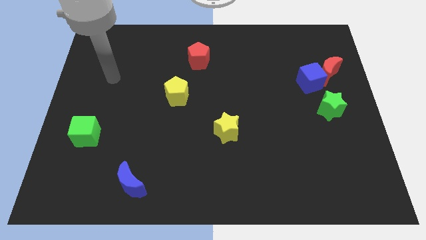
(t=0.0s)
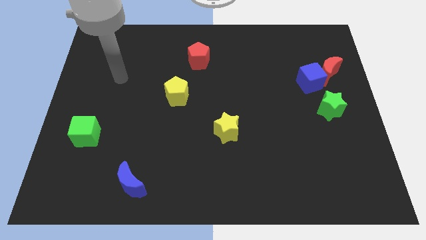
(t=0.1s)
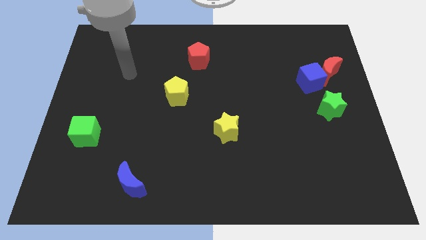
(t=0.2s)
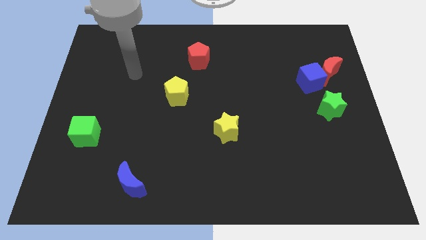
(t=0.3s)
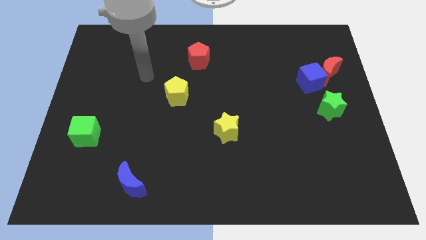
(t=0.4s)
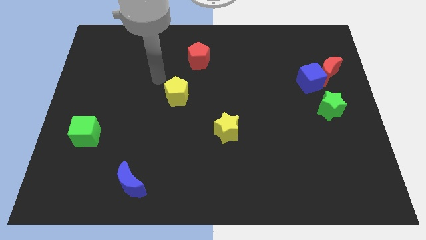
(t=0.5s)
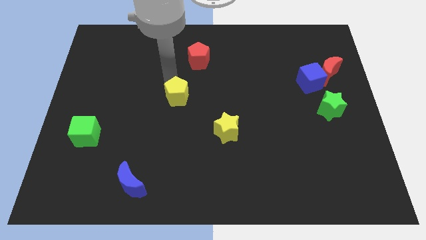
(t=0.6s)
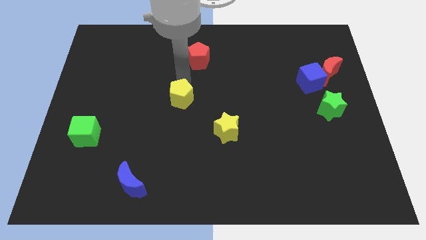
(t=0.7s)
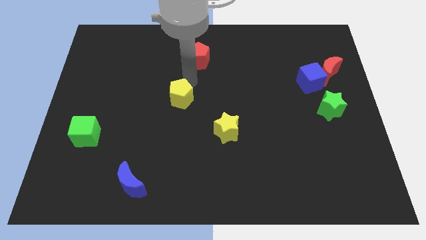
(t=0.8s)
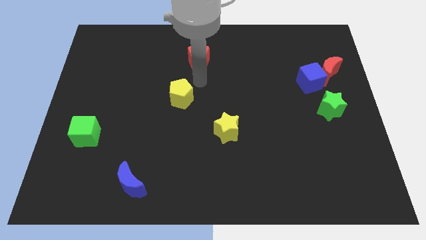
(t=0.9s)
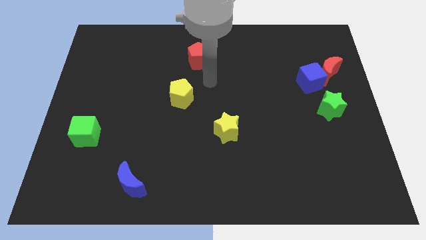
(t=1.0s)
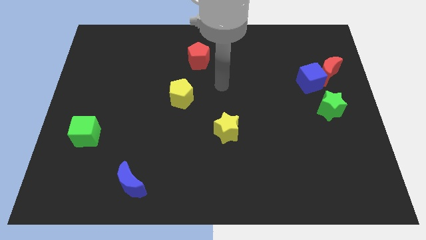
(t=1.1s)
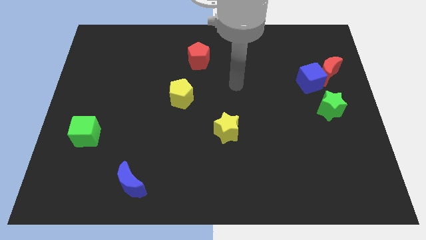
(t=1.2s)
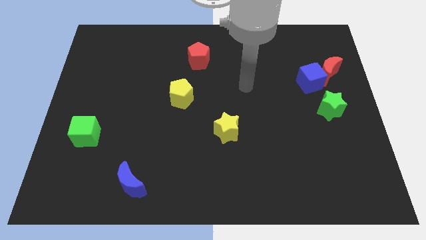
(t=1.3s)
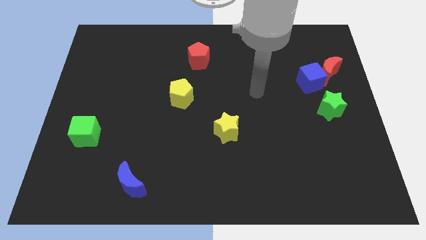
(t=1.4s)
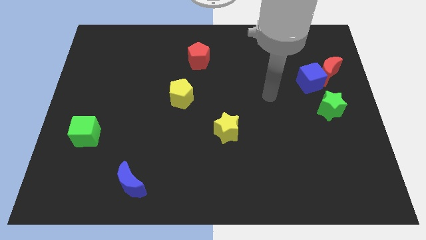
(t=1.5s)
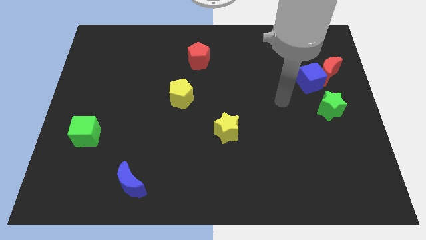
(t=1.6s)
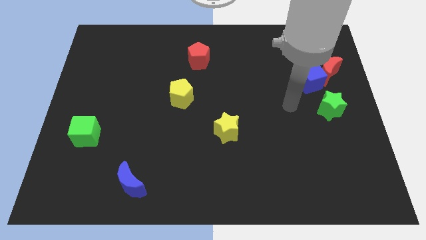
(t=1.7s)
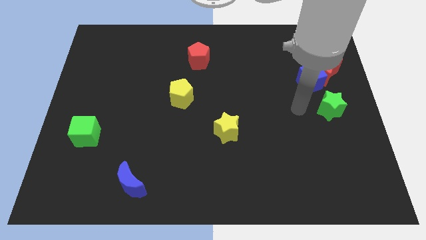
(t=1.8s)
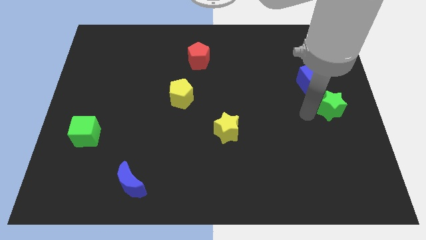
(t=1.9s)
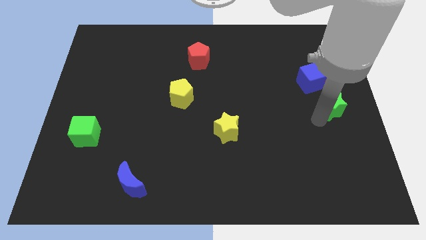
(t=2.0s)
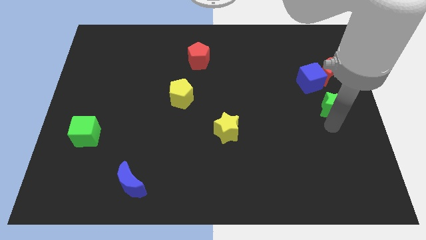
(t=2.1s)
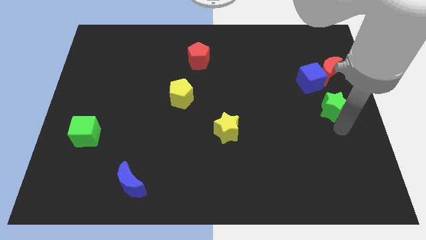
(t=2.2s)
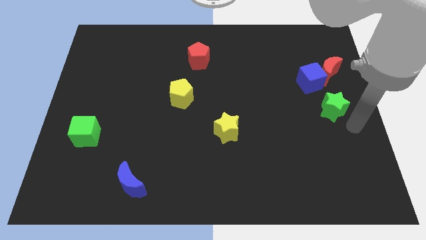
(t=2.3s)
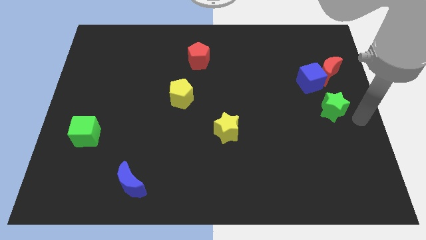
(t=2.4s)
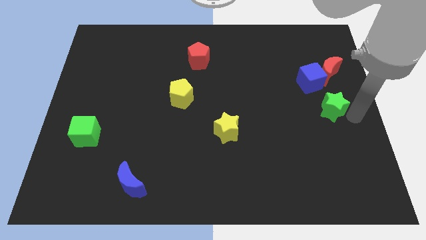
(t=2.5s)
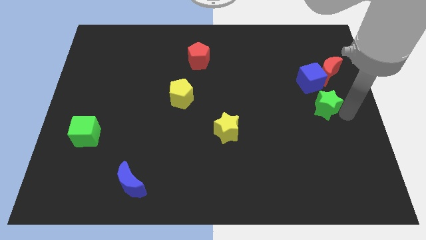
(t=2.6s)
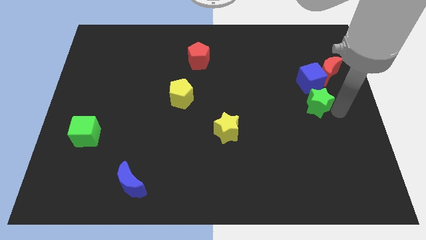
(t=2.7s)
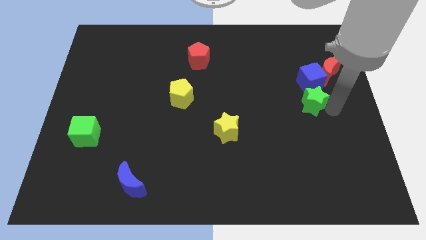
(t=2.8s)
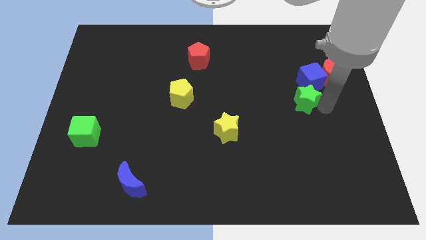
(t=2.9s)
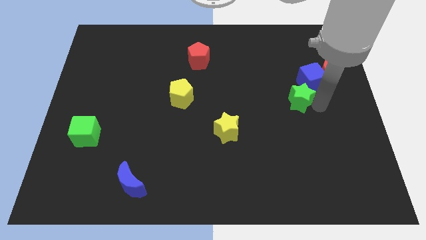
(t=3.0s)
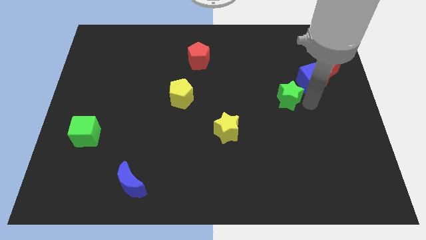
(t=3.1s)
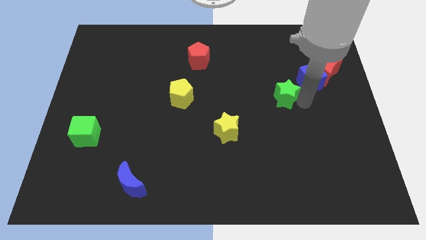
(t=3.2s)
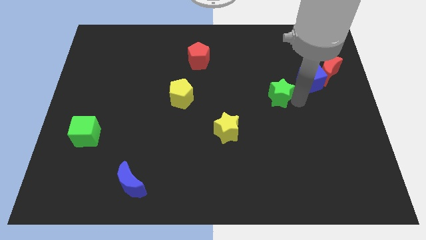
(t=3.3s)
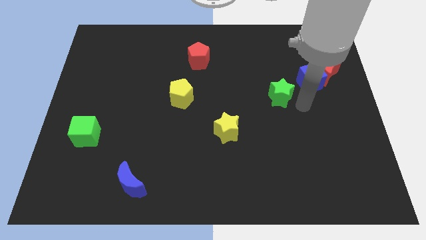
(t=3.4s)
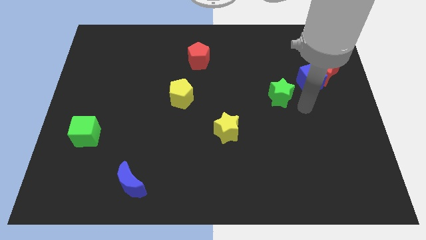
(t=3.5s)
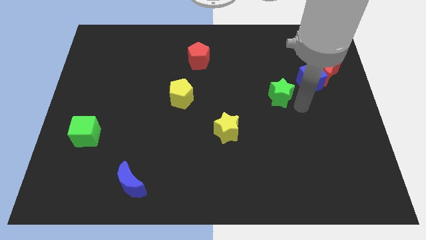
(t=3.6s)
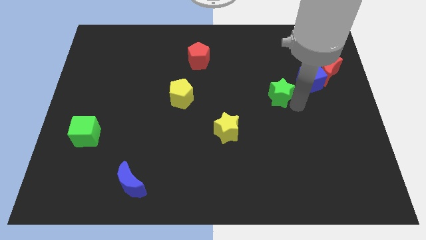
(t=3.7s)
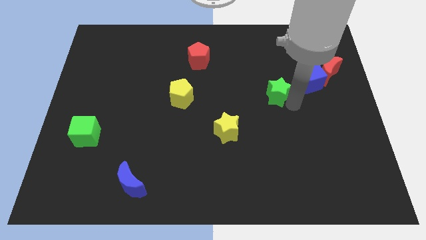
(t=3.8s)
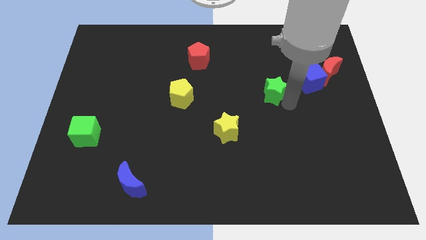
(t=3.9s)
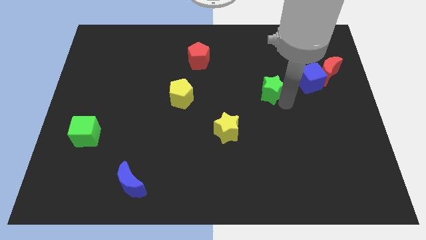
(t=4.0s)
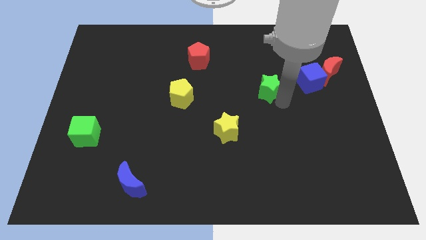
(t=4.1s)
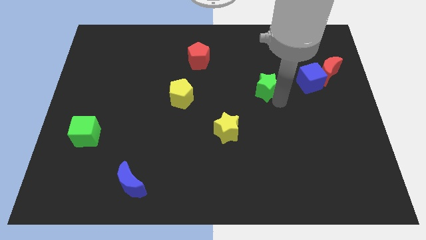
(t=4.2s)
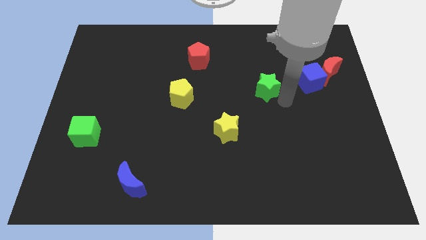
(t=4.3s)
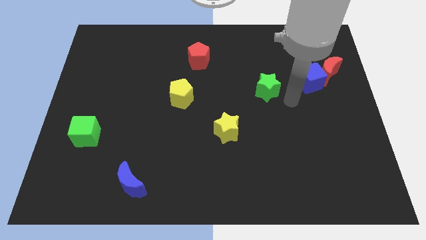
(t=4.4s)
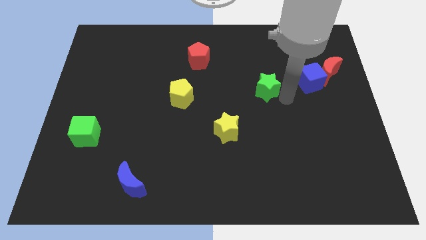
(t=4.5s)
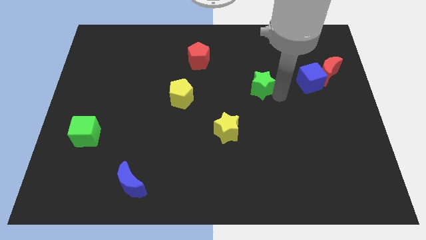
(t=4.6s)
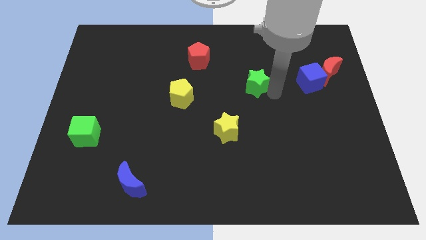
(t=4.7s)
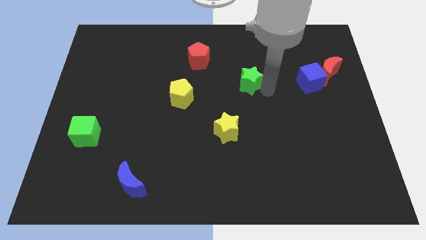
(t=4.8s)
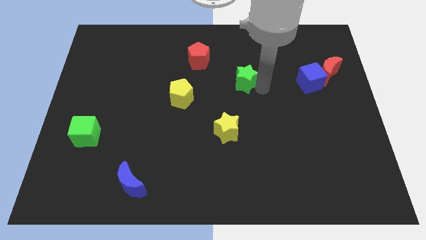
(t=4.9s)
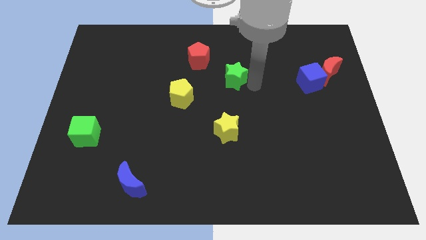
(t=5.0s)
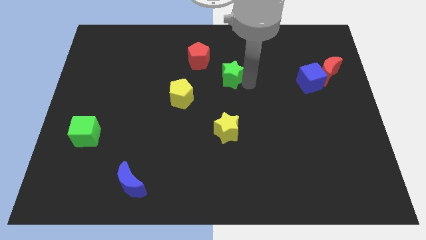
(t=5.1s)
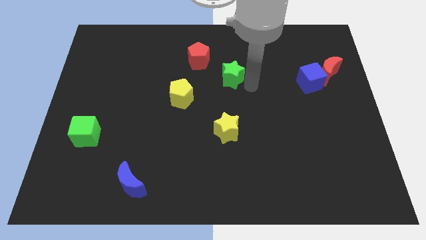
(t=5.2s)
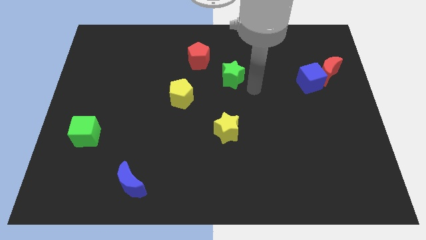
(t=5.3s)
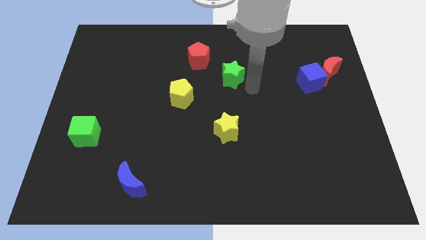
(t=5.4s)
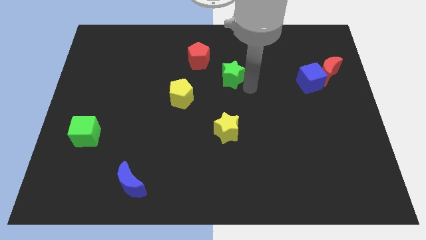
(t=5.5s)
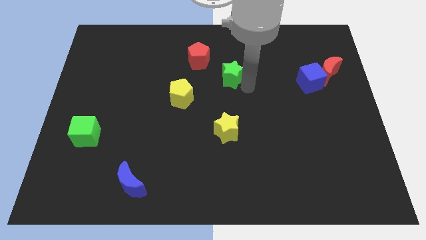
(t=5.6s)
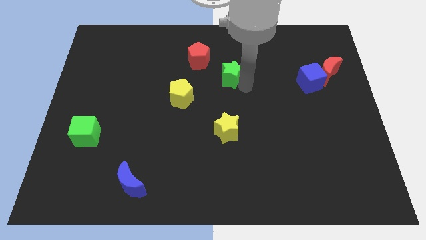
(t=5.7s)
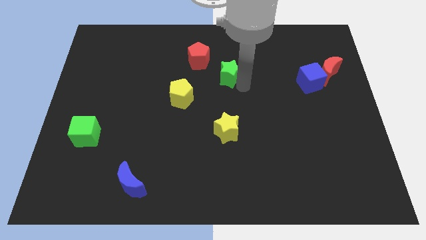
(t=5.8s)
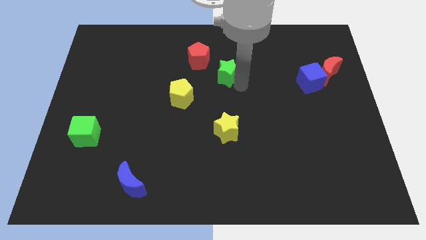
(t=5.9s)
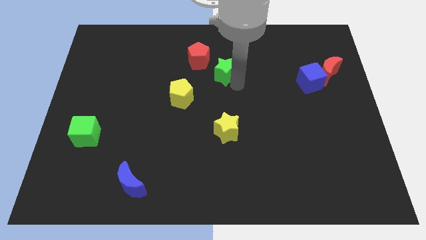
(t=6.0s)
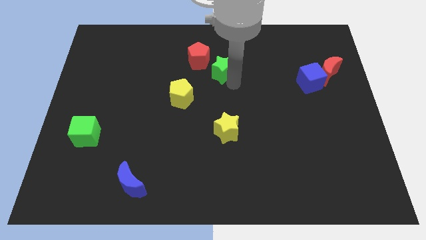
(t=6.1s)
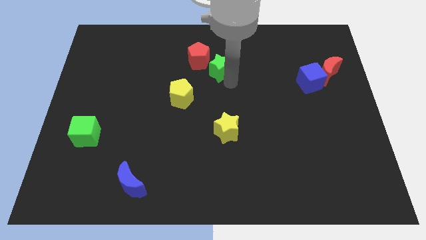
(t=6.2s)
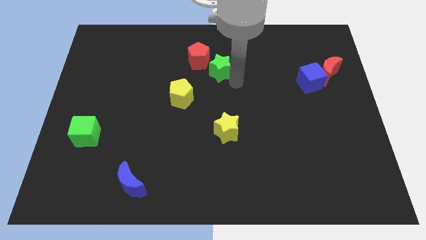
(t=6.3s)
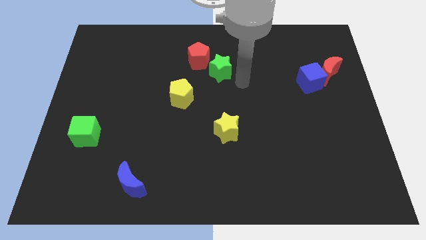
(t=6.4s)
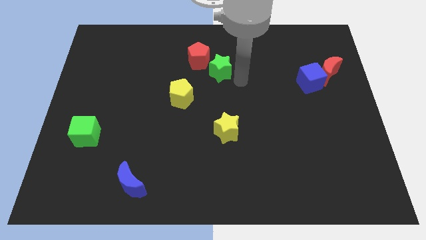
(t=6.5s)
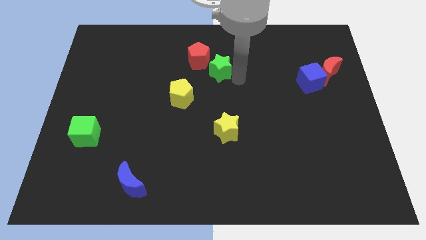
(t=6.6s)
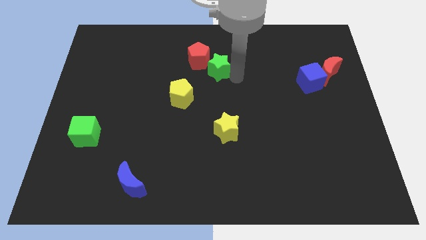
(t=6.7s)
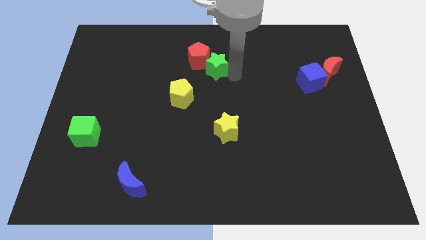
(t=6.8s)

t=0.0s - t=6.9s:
put the green star close to the red pentagon
